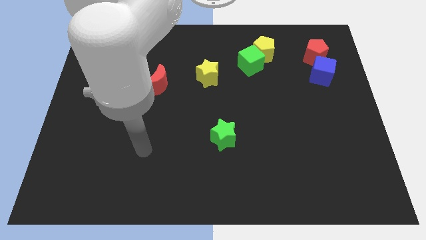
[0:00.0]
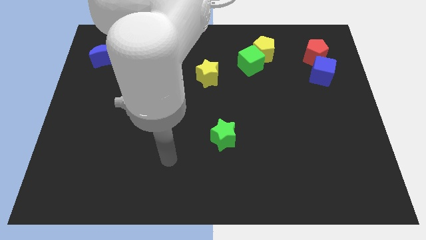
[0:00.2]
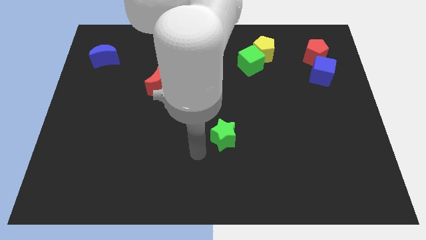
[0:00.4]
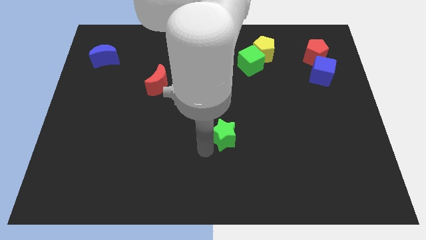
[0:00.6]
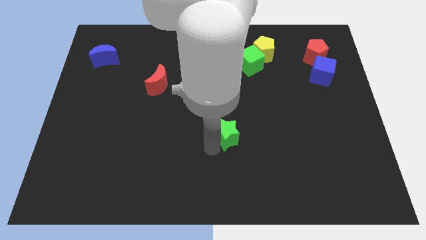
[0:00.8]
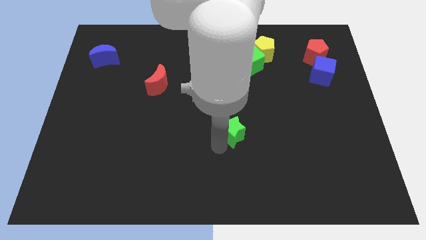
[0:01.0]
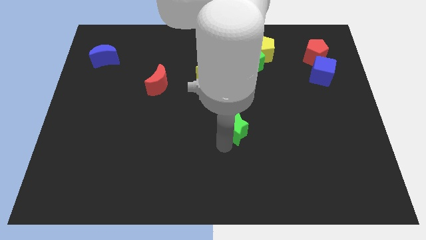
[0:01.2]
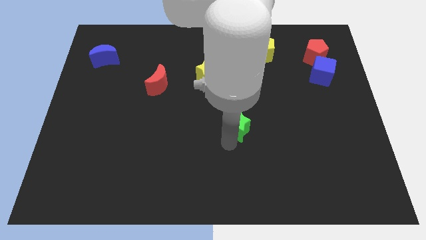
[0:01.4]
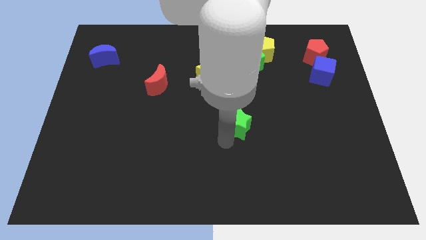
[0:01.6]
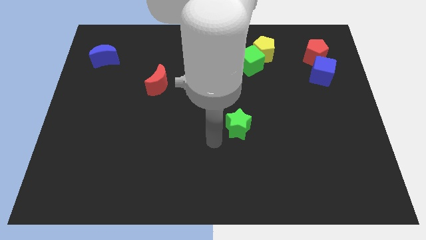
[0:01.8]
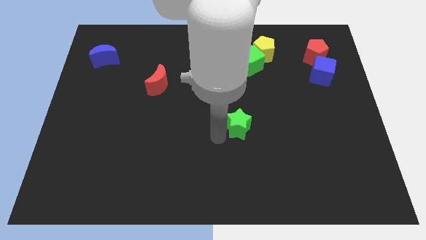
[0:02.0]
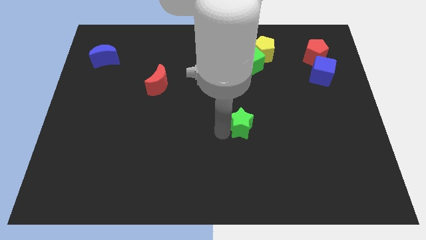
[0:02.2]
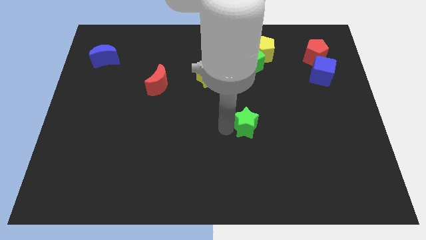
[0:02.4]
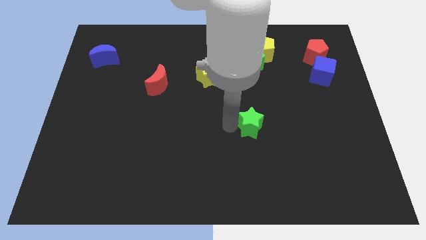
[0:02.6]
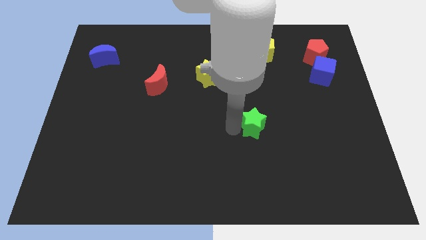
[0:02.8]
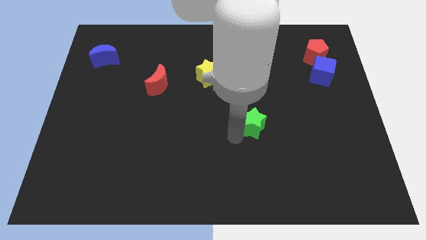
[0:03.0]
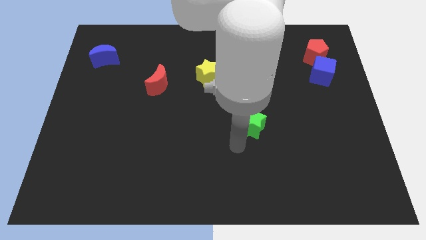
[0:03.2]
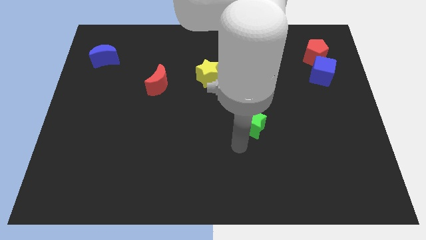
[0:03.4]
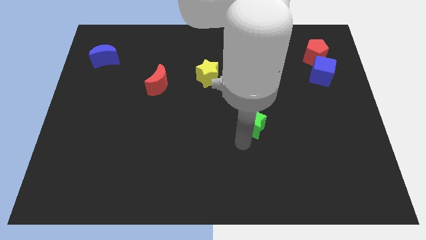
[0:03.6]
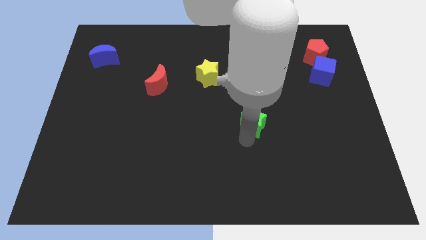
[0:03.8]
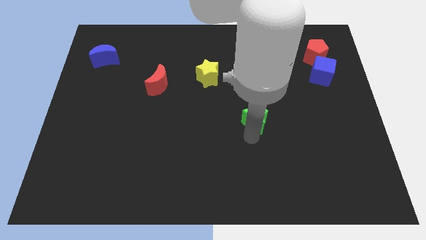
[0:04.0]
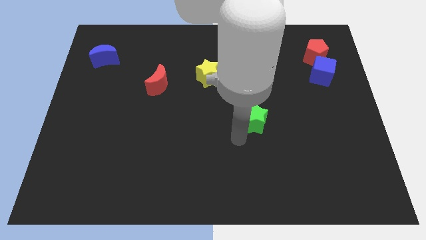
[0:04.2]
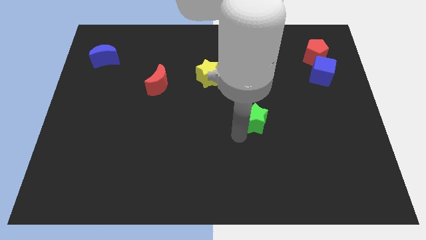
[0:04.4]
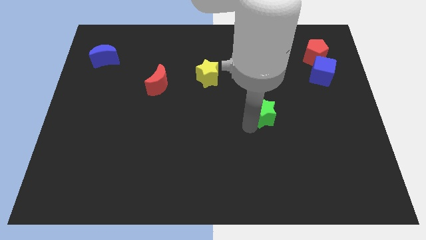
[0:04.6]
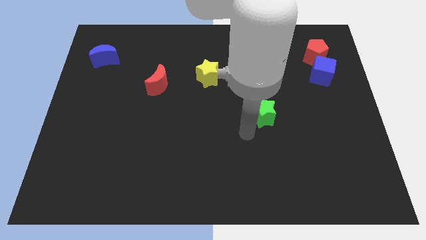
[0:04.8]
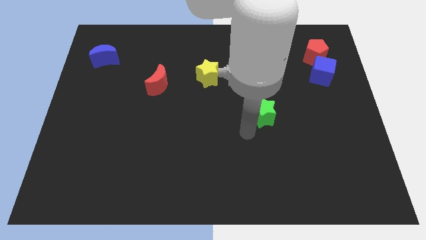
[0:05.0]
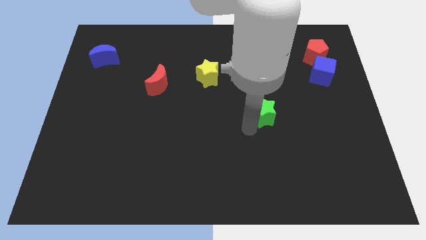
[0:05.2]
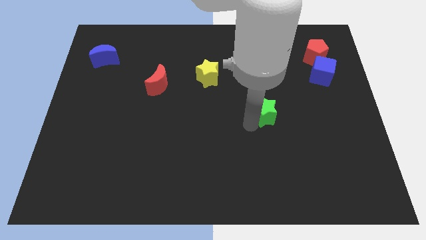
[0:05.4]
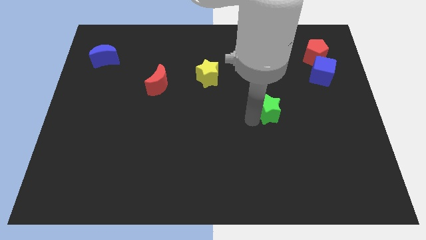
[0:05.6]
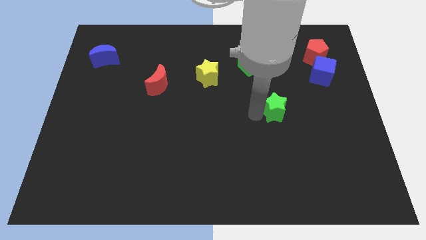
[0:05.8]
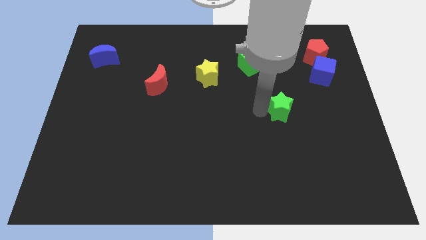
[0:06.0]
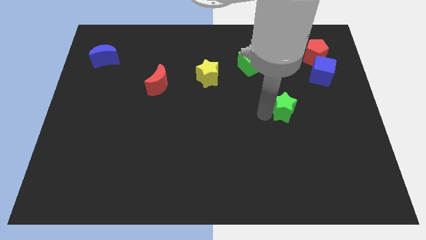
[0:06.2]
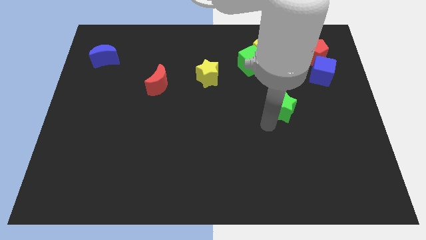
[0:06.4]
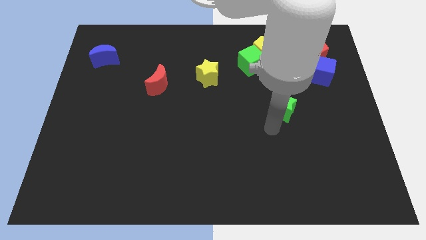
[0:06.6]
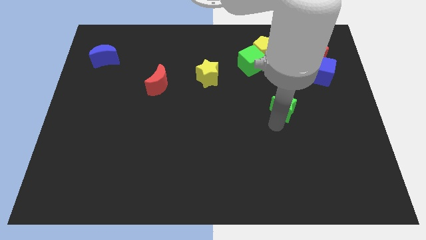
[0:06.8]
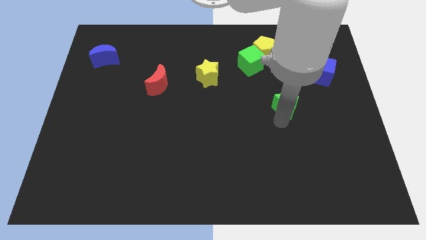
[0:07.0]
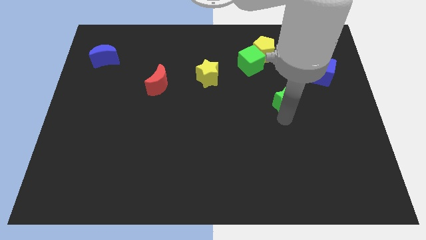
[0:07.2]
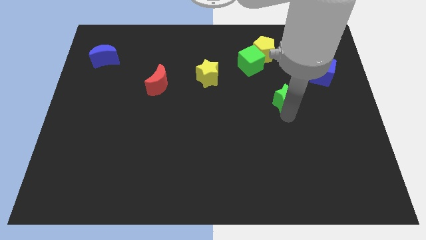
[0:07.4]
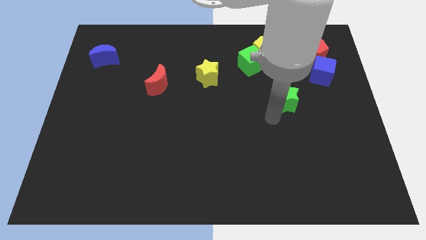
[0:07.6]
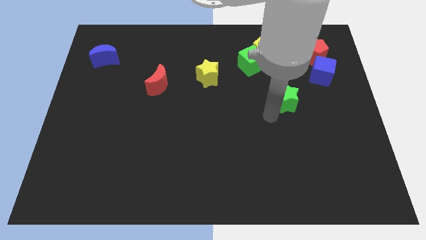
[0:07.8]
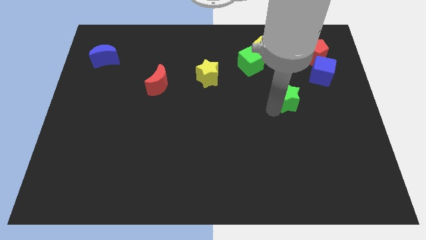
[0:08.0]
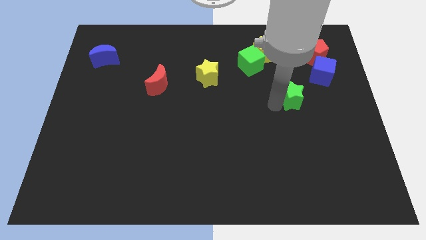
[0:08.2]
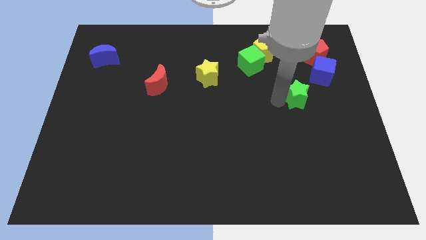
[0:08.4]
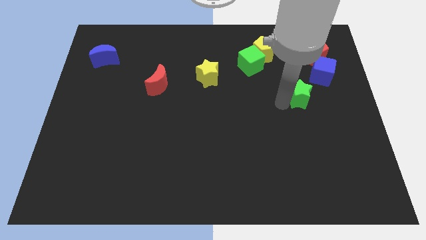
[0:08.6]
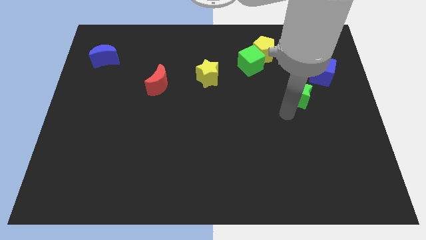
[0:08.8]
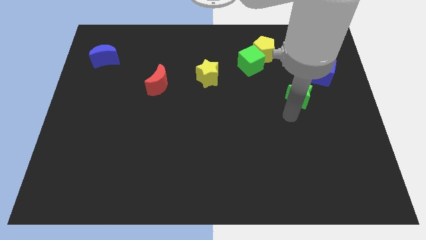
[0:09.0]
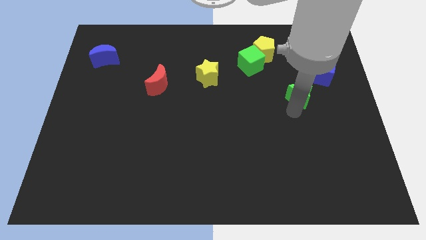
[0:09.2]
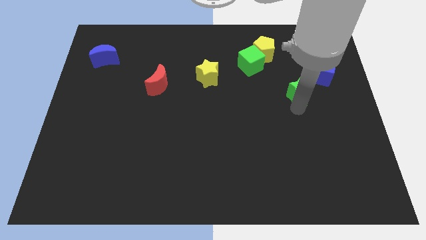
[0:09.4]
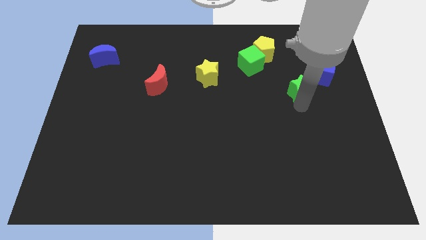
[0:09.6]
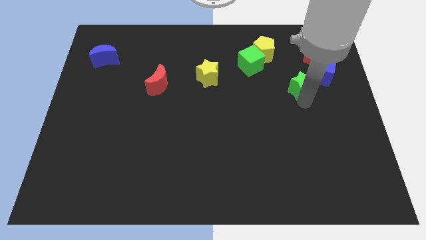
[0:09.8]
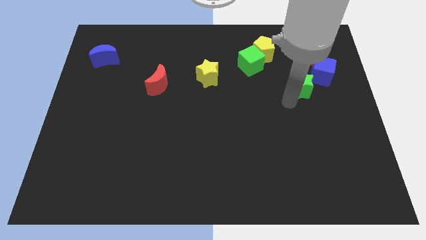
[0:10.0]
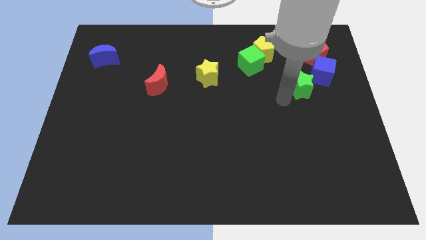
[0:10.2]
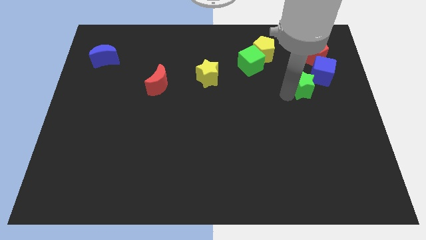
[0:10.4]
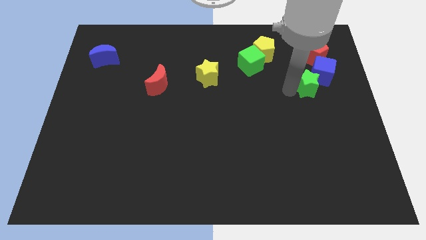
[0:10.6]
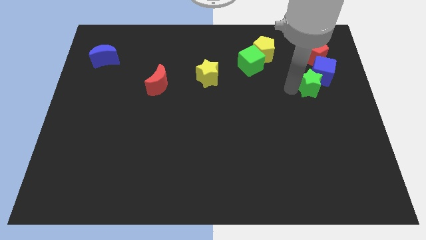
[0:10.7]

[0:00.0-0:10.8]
slide the green star to the blue cube

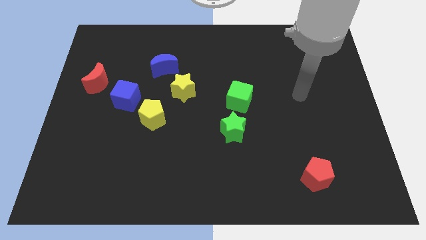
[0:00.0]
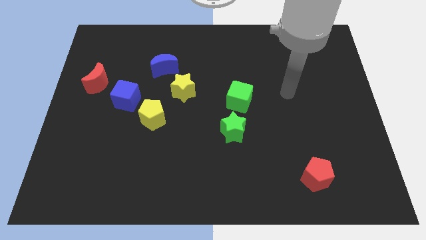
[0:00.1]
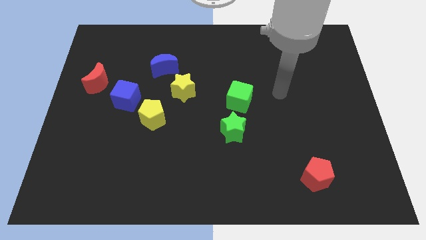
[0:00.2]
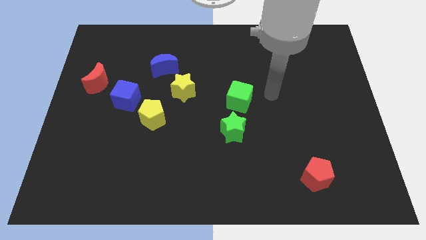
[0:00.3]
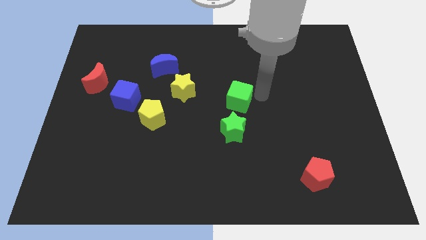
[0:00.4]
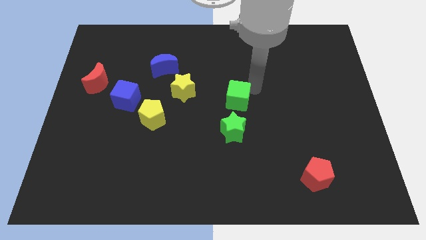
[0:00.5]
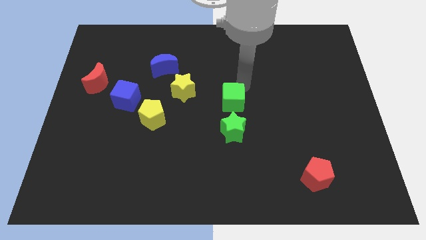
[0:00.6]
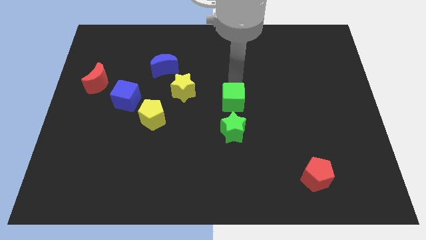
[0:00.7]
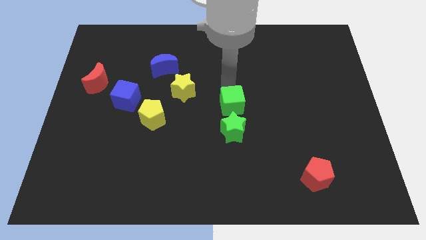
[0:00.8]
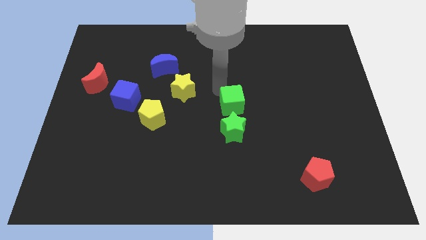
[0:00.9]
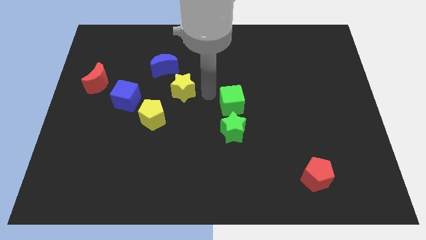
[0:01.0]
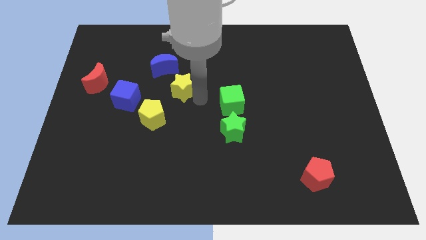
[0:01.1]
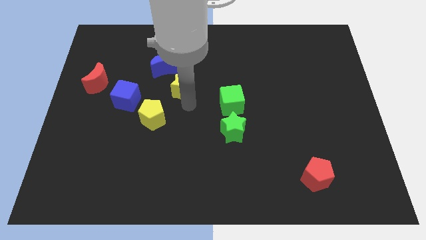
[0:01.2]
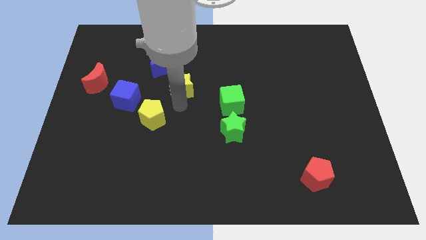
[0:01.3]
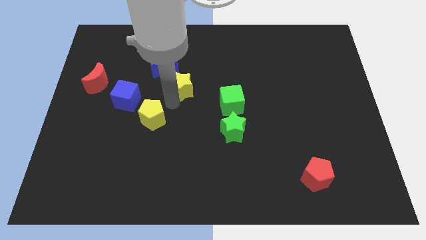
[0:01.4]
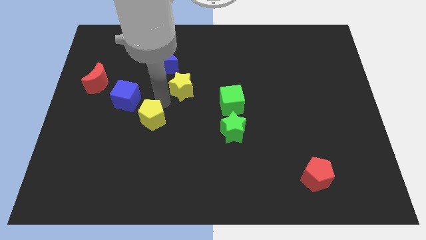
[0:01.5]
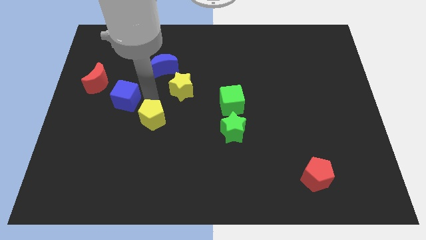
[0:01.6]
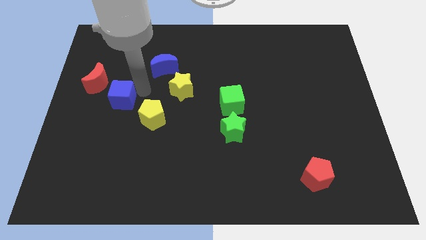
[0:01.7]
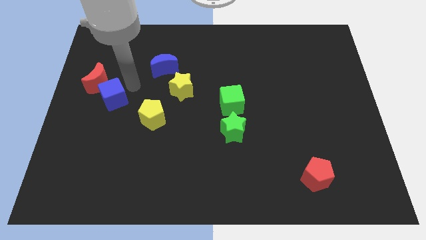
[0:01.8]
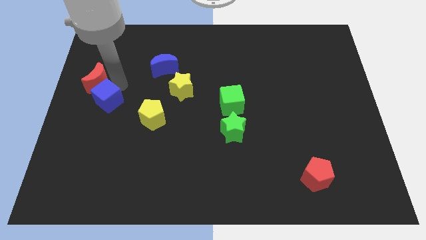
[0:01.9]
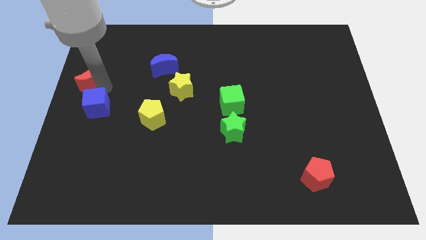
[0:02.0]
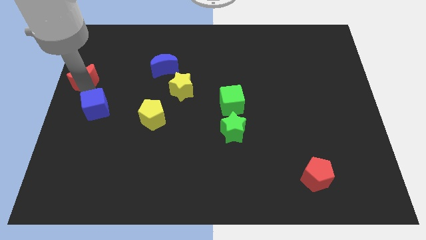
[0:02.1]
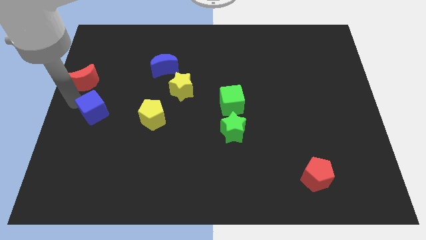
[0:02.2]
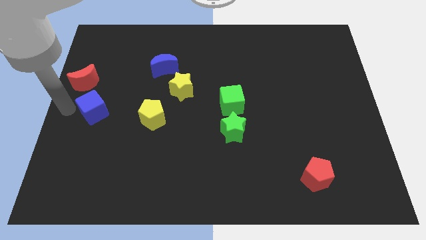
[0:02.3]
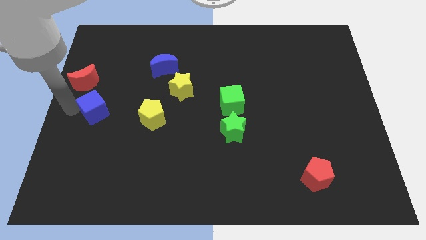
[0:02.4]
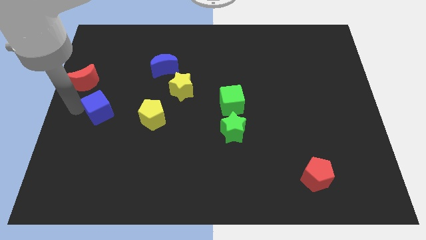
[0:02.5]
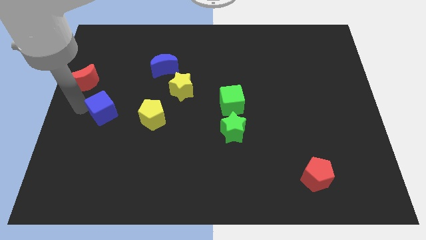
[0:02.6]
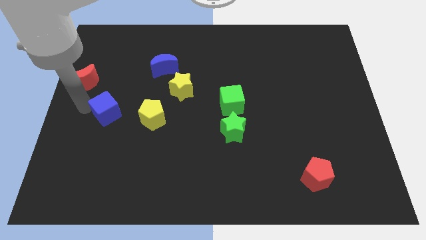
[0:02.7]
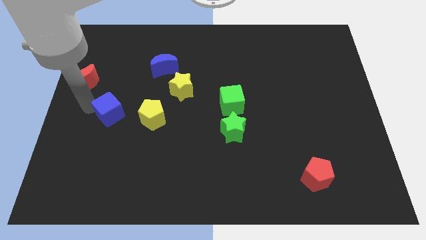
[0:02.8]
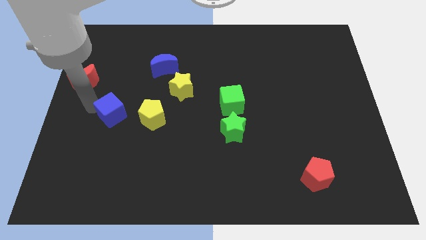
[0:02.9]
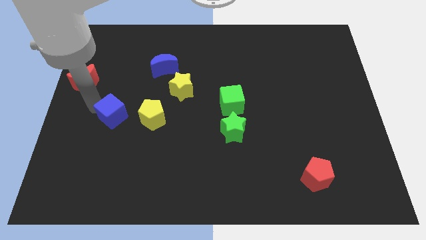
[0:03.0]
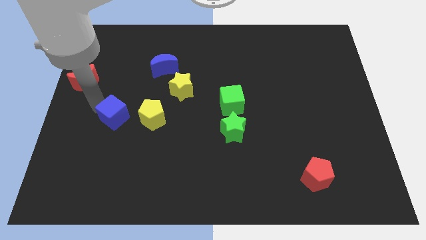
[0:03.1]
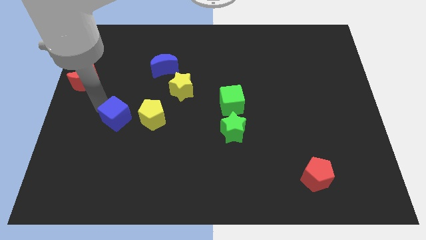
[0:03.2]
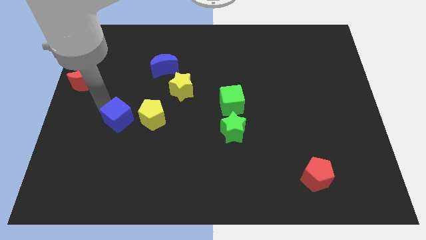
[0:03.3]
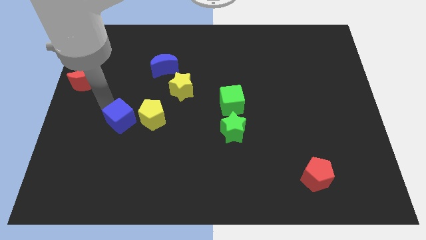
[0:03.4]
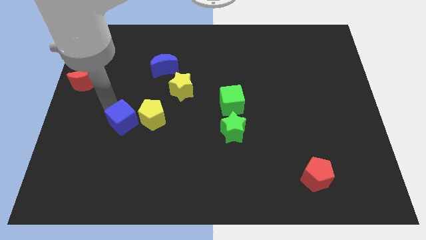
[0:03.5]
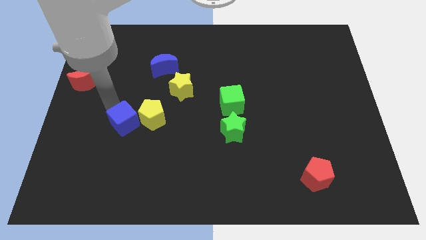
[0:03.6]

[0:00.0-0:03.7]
put the blue cube next to the yellow pentagon
